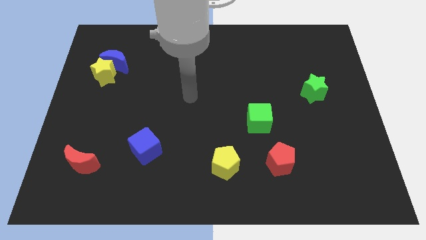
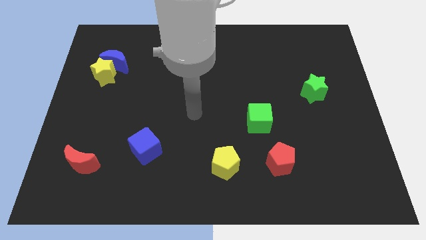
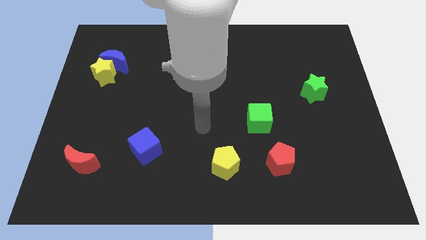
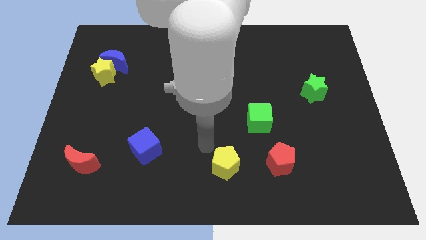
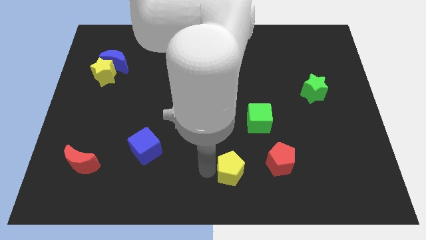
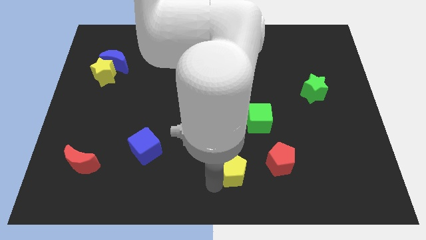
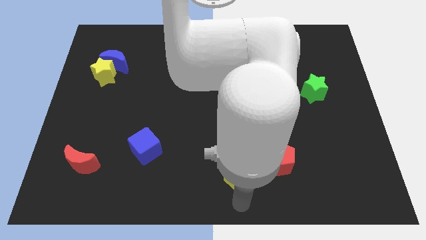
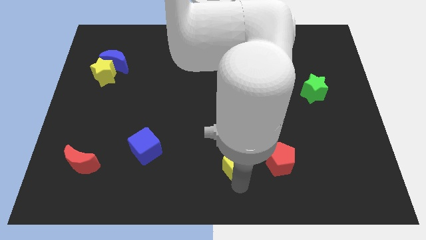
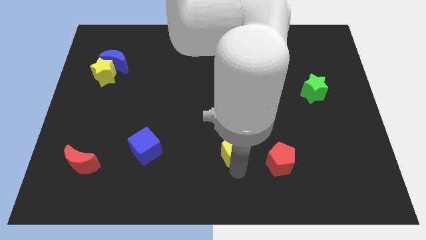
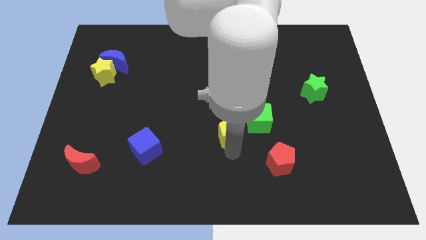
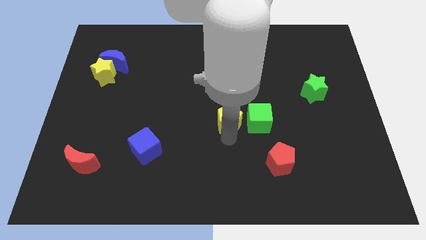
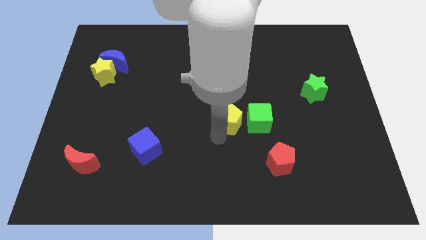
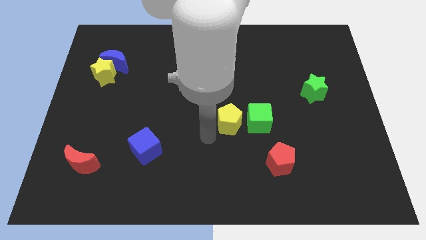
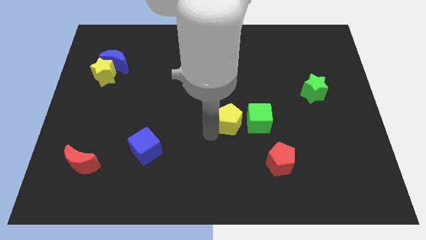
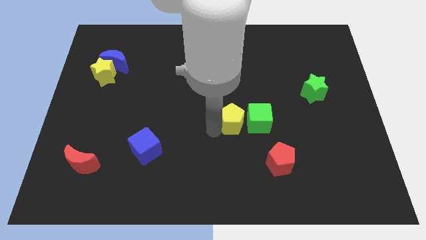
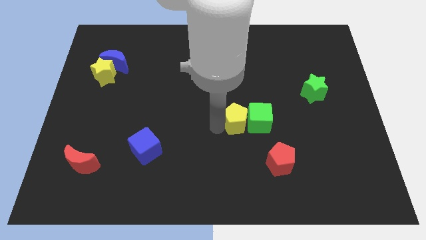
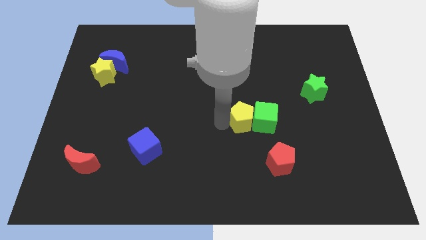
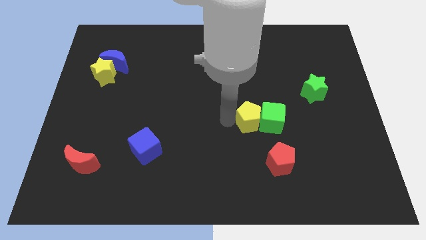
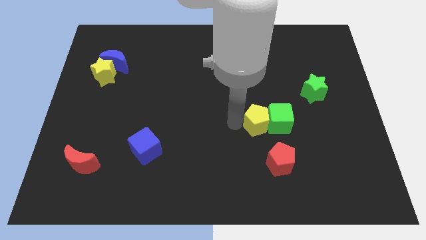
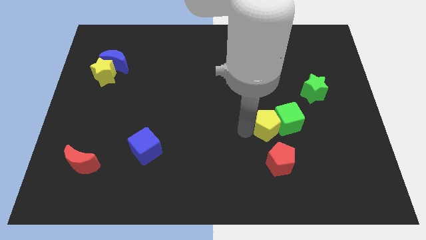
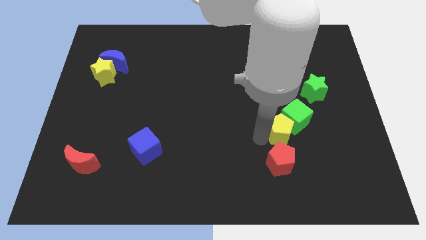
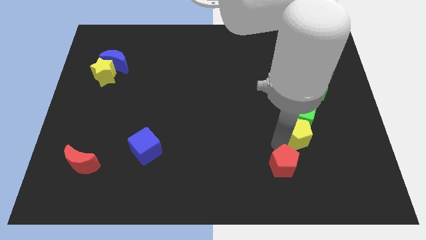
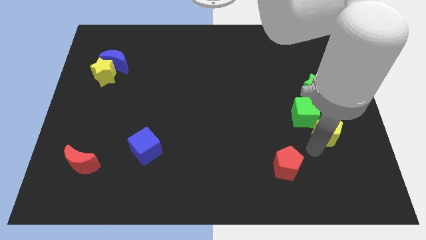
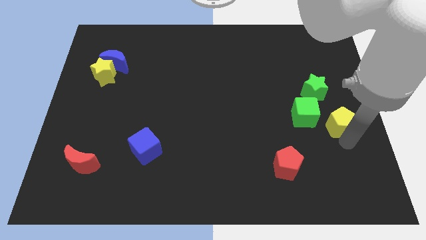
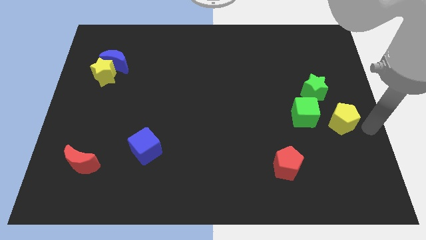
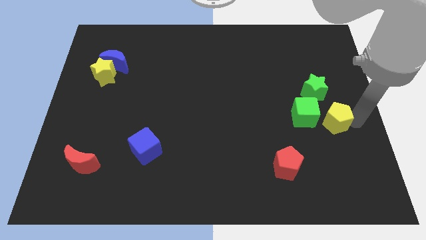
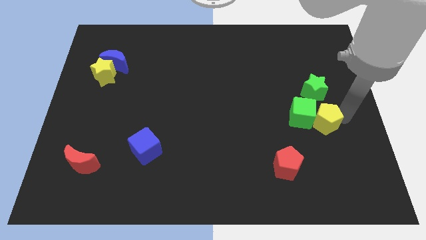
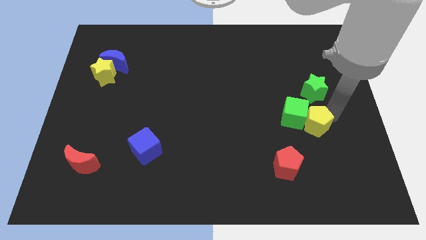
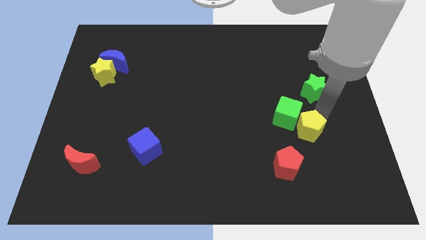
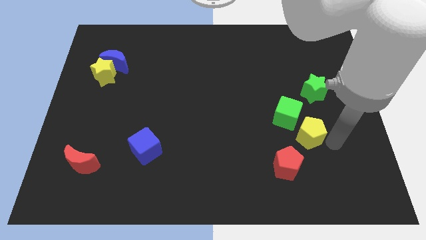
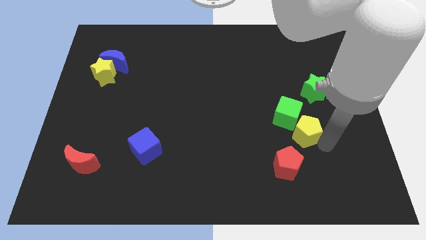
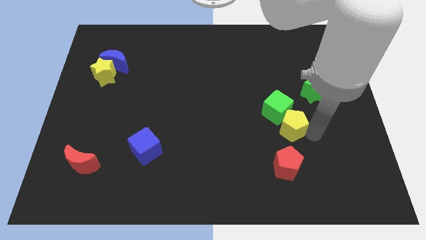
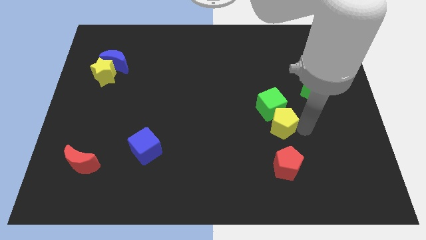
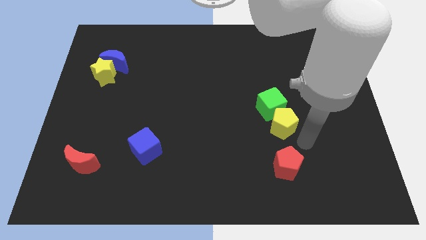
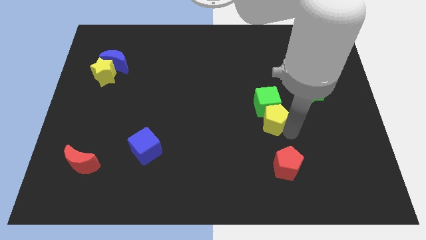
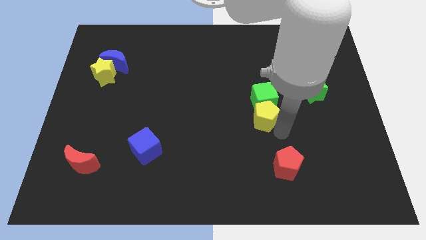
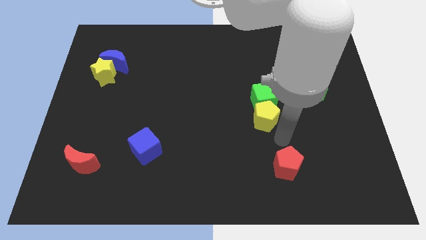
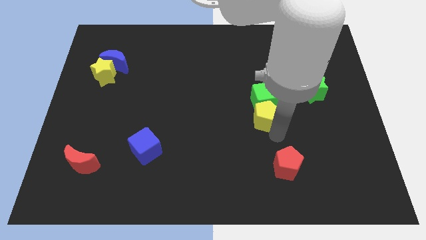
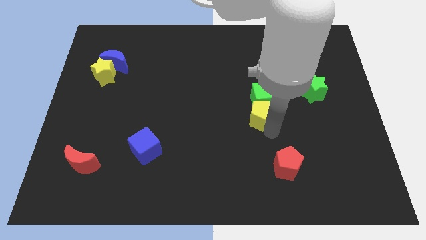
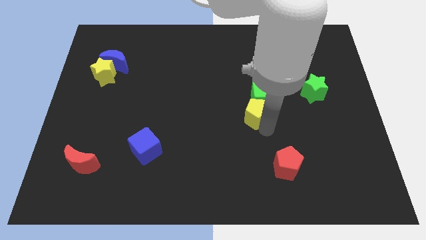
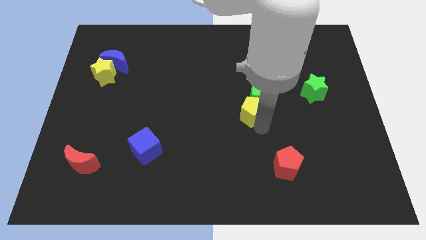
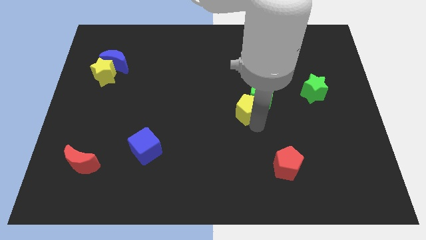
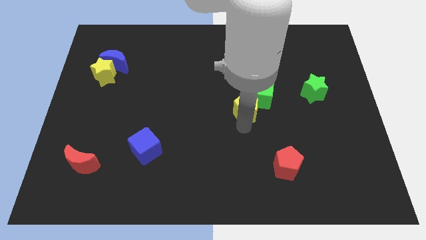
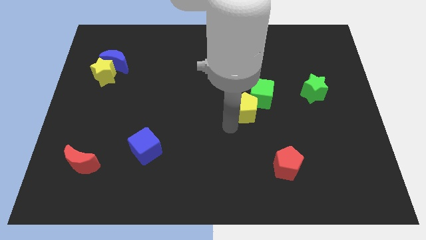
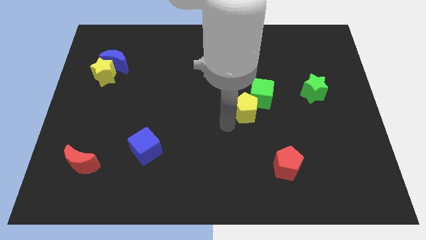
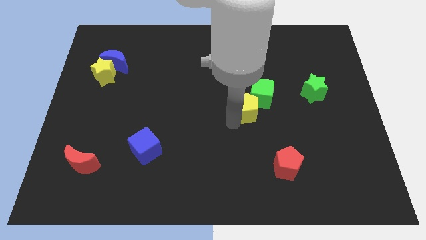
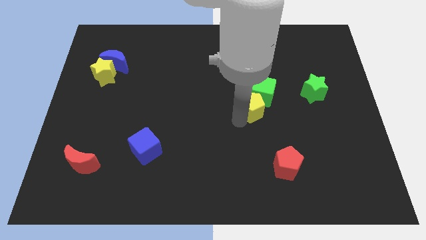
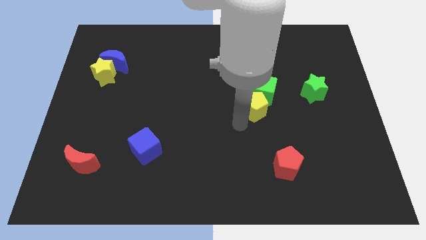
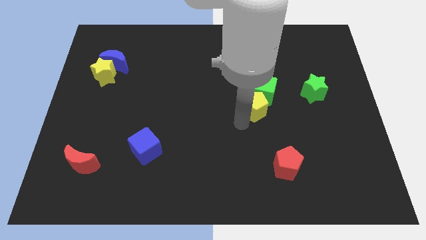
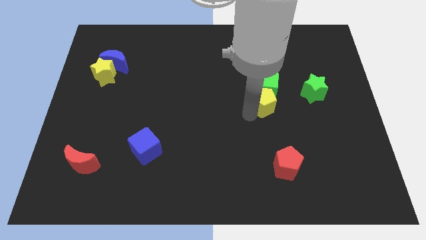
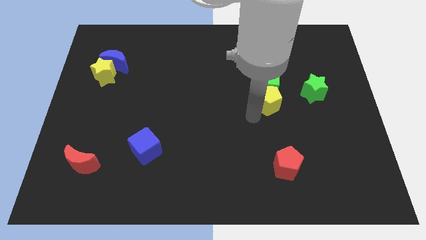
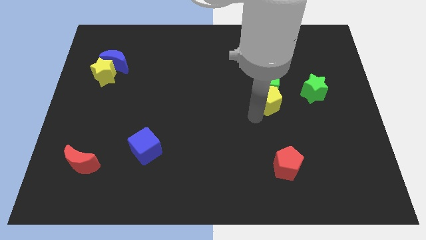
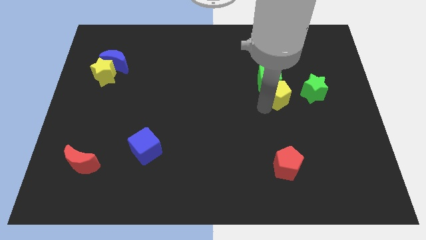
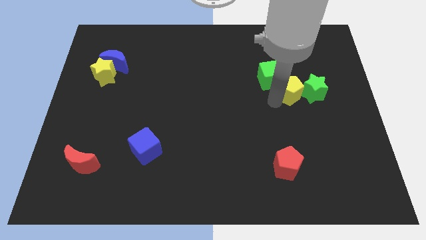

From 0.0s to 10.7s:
put the yellow pentagon to the top left of the green star

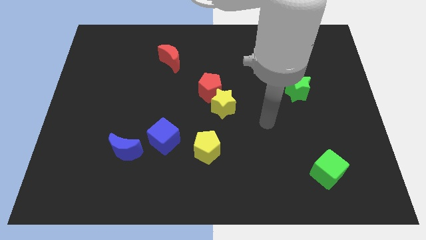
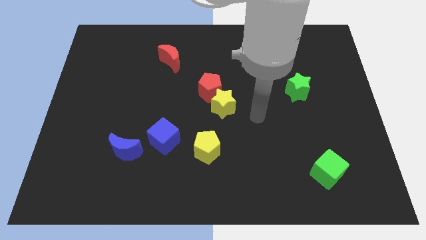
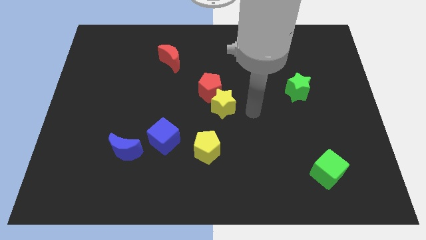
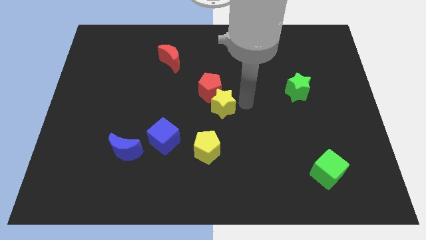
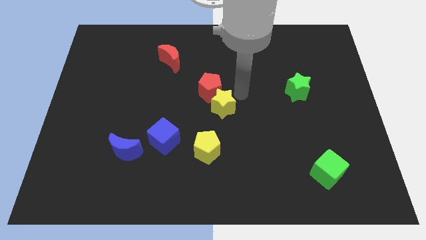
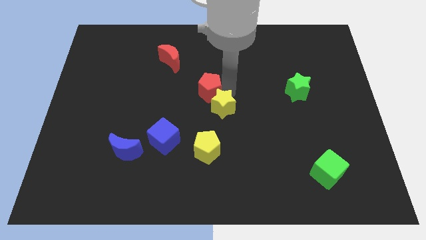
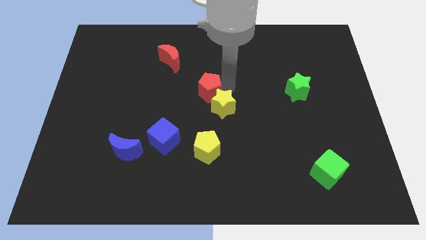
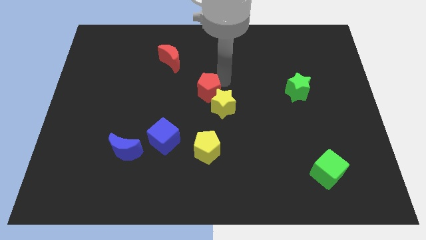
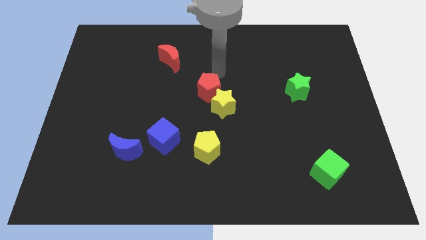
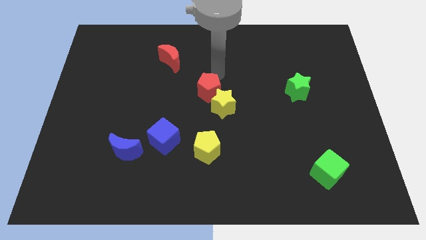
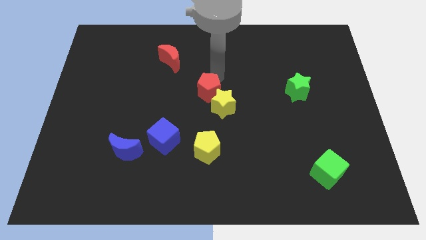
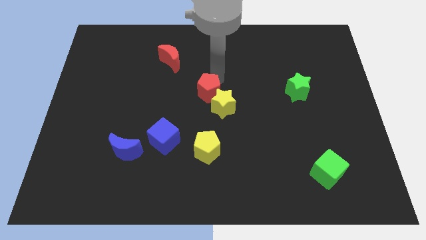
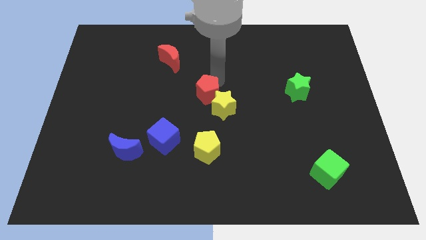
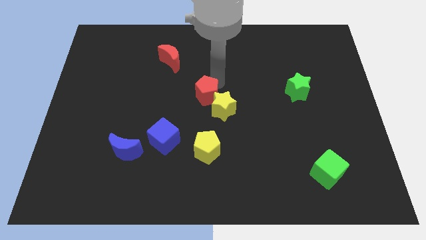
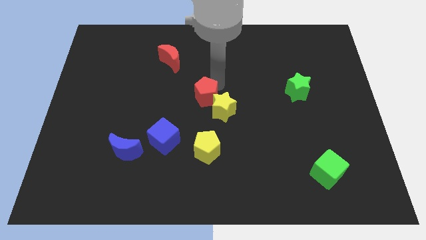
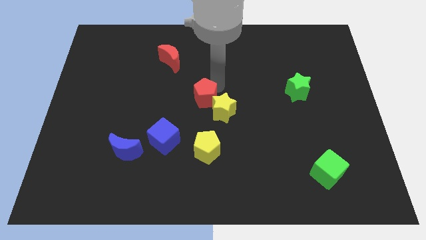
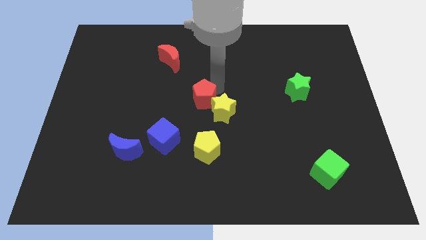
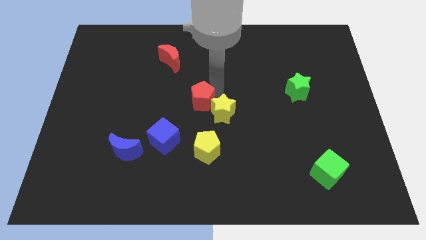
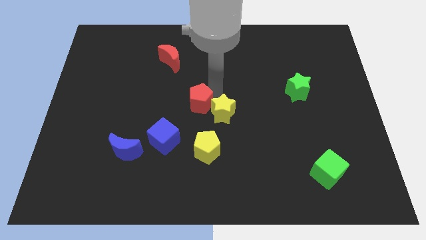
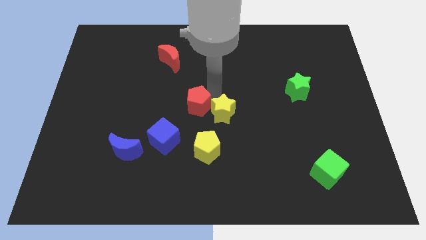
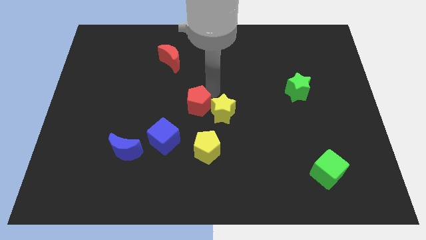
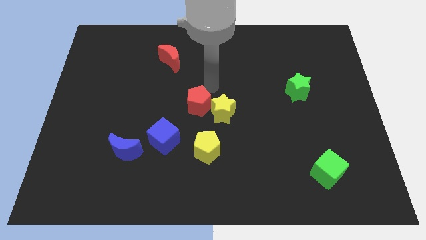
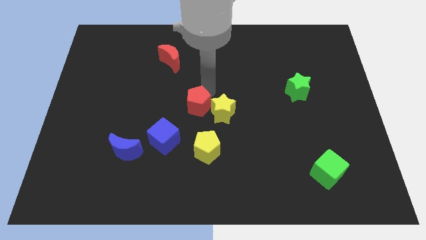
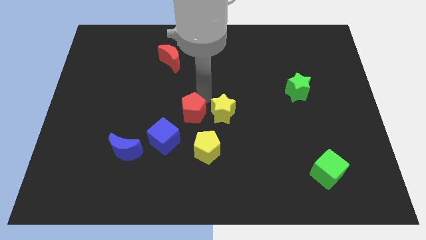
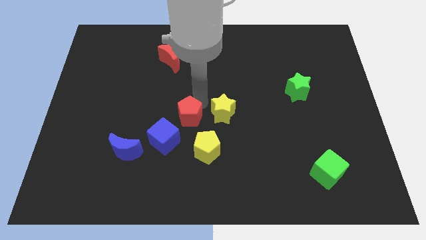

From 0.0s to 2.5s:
put the red pentagon to the top left of the yellow pentagon

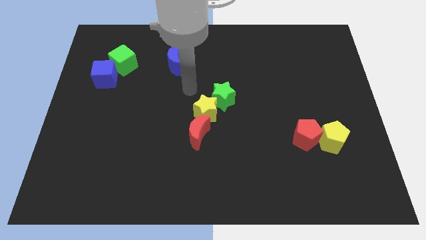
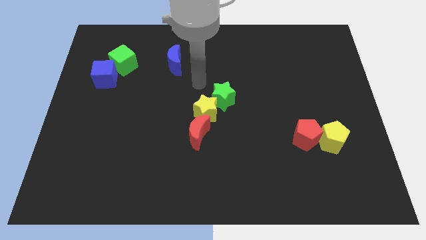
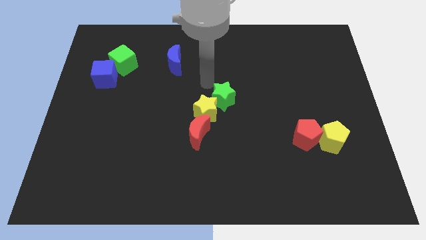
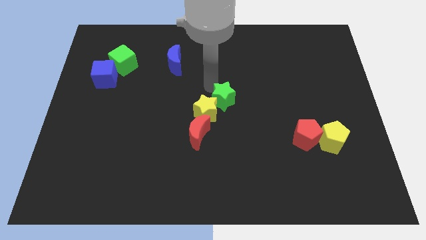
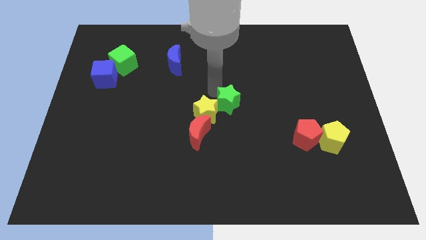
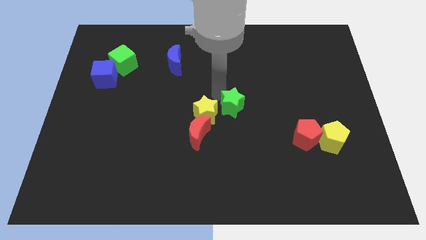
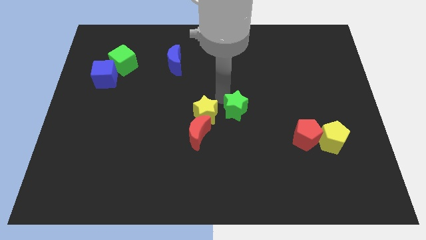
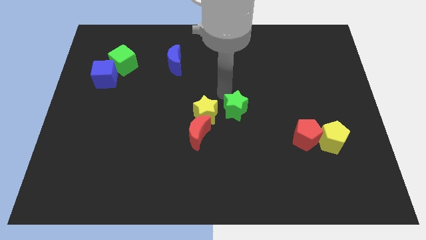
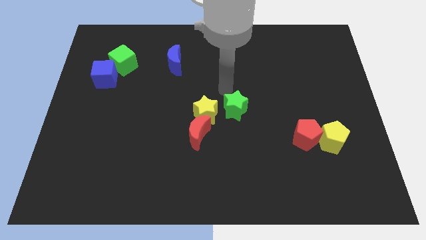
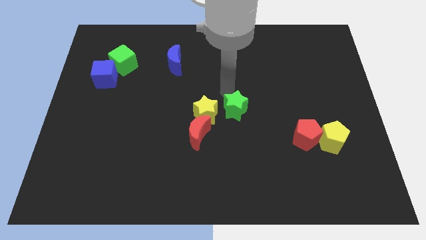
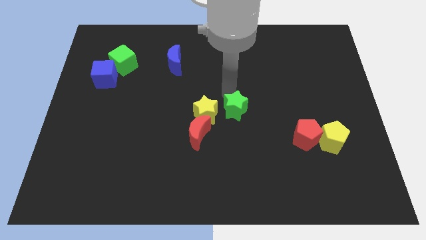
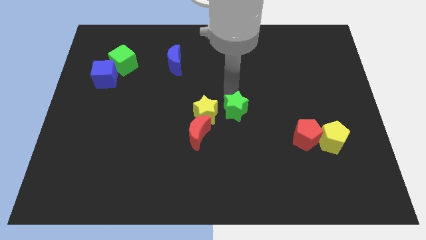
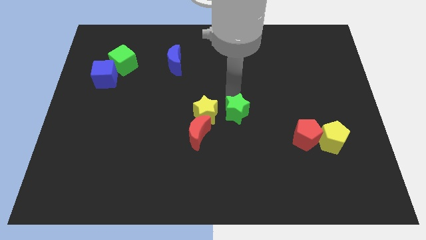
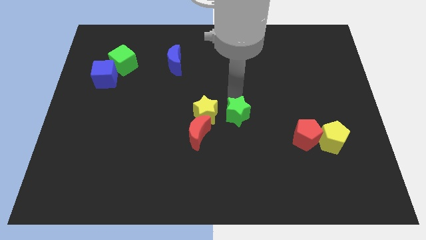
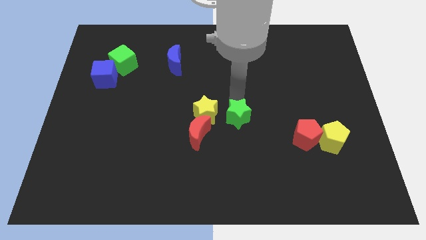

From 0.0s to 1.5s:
push the green star just right of the red moon
